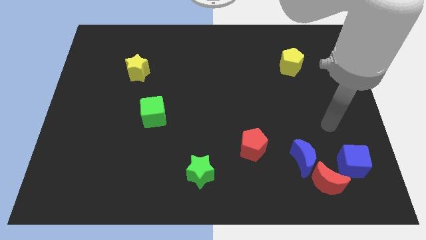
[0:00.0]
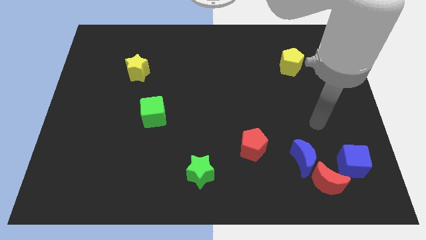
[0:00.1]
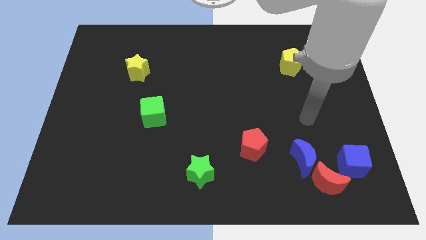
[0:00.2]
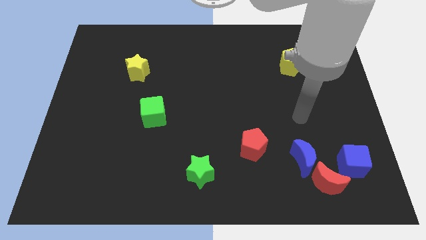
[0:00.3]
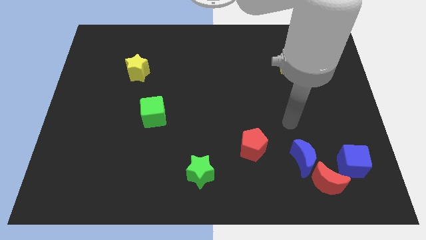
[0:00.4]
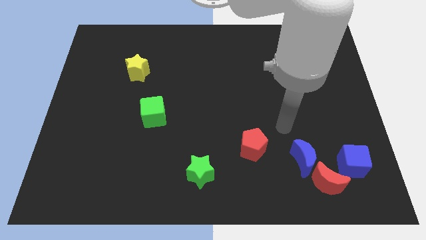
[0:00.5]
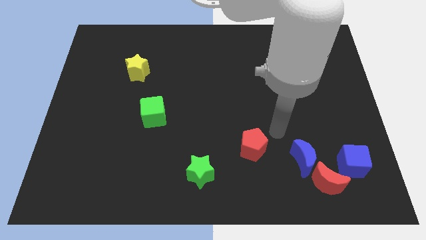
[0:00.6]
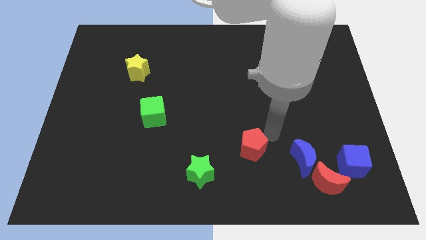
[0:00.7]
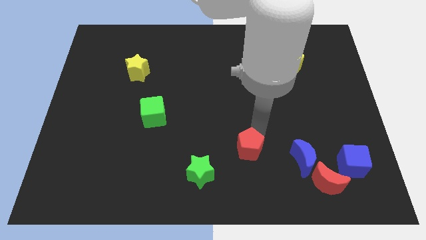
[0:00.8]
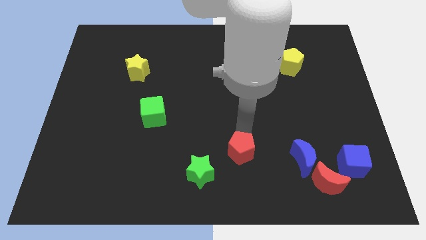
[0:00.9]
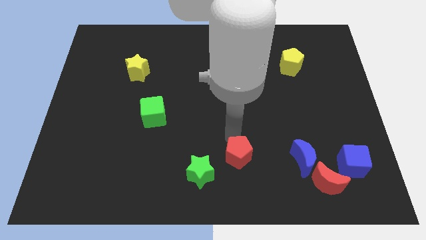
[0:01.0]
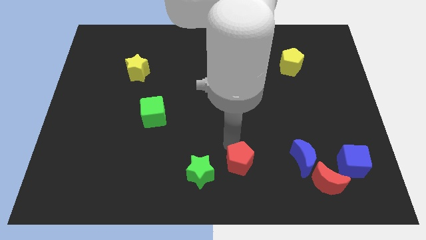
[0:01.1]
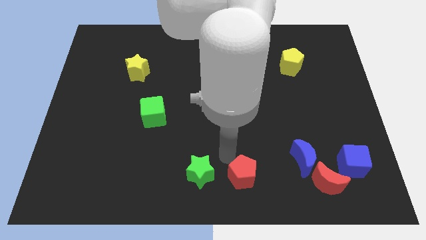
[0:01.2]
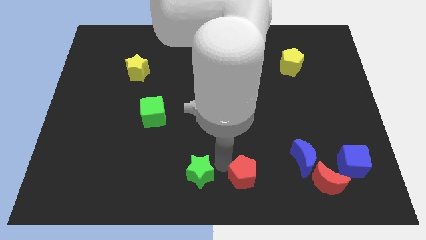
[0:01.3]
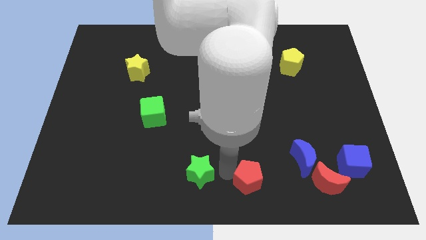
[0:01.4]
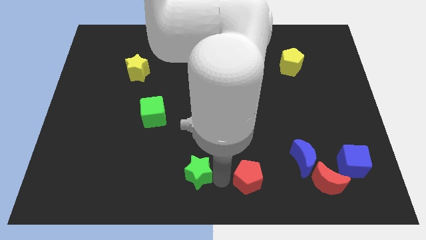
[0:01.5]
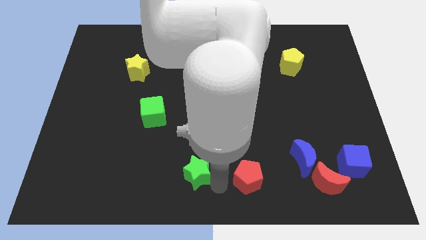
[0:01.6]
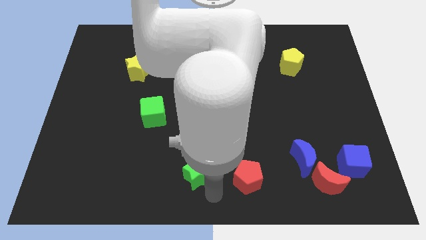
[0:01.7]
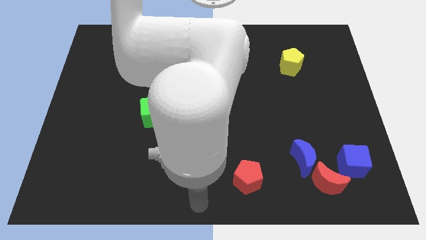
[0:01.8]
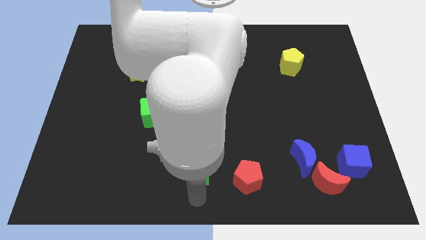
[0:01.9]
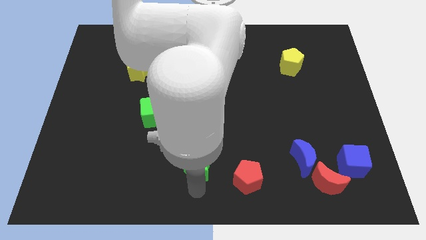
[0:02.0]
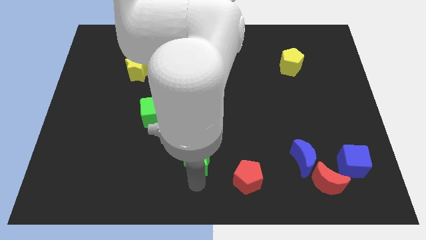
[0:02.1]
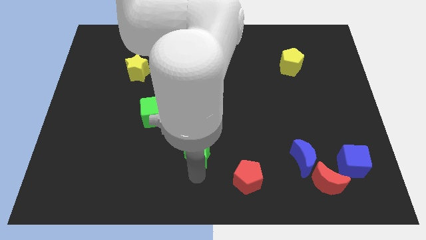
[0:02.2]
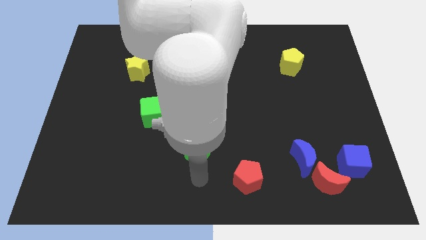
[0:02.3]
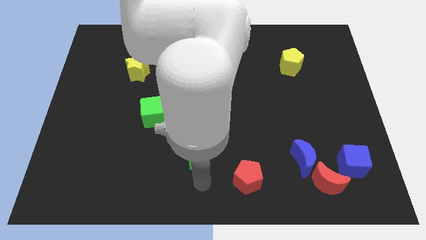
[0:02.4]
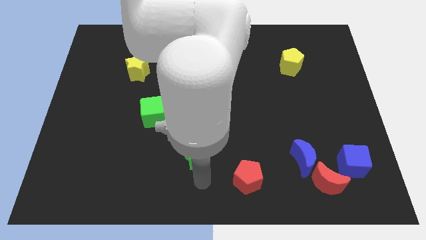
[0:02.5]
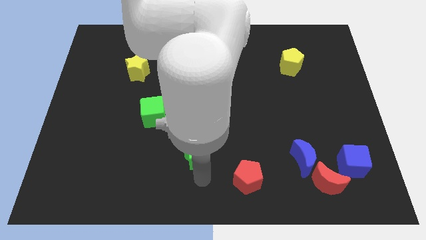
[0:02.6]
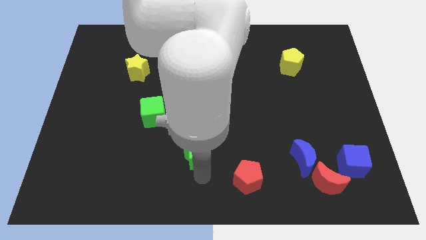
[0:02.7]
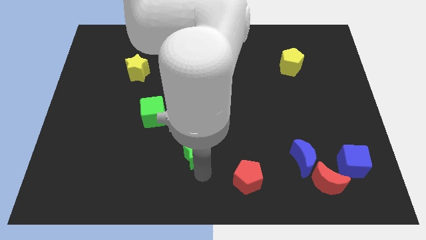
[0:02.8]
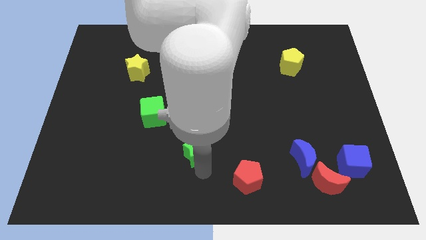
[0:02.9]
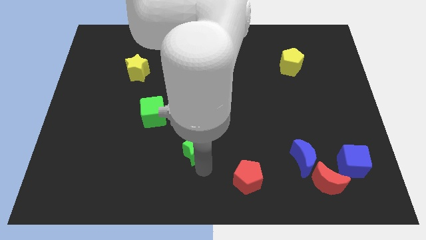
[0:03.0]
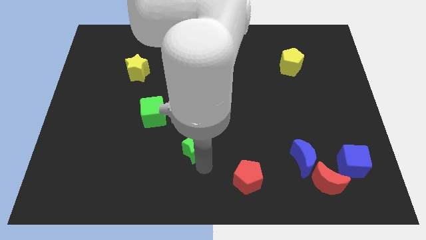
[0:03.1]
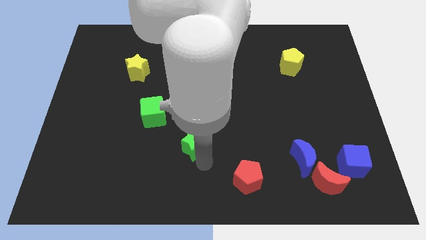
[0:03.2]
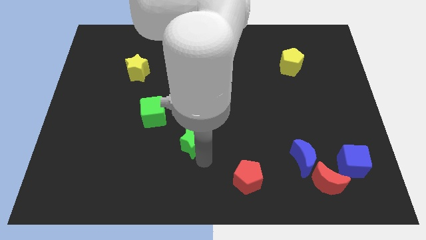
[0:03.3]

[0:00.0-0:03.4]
slide the green star upwards slightly

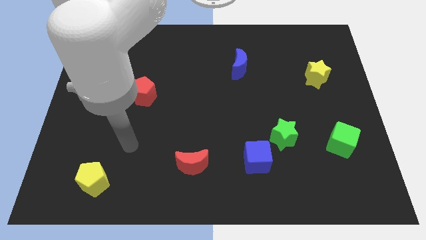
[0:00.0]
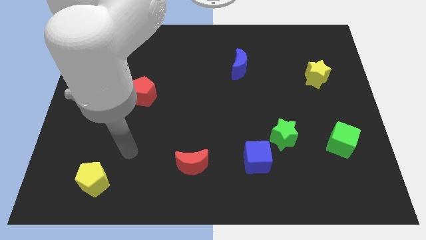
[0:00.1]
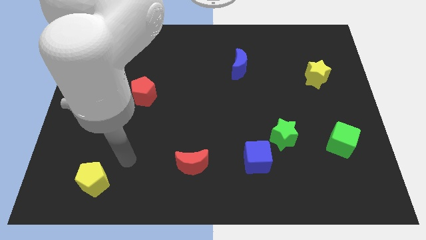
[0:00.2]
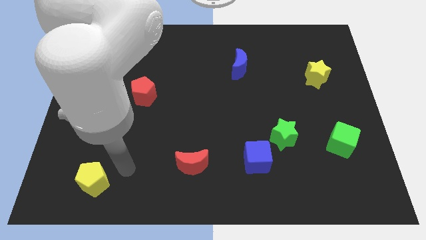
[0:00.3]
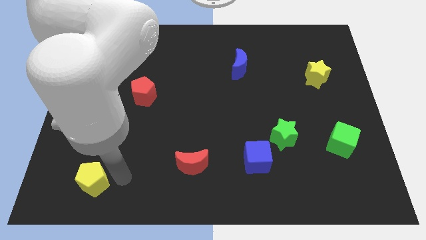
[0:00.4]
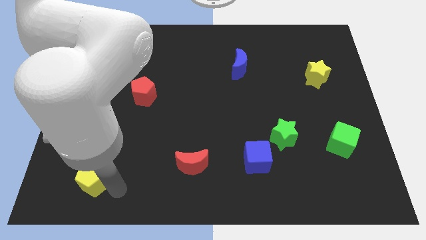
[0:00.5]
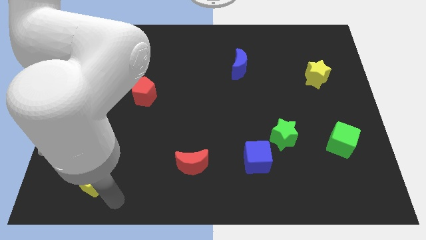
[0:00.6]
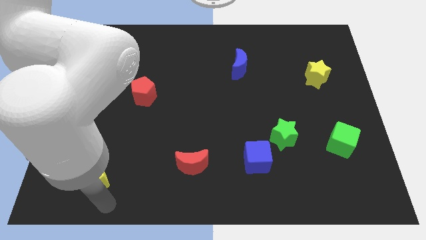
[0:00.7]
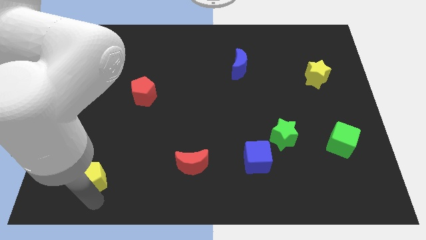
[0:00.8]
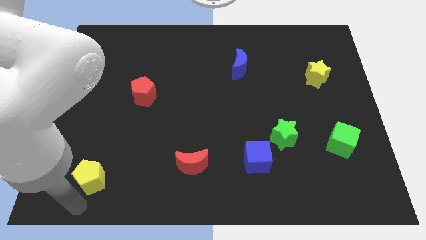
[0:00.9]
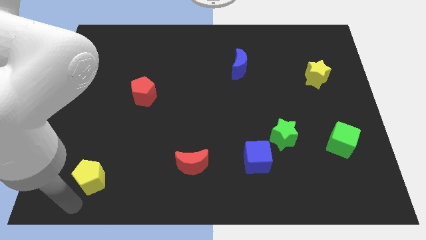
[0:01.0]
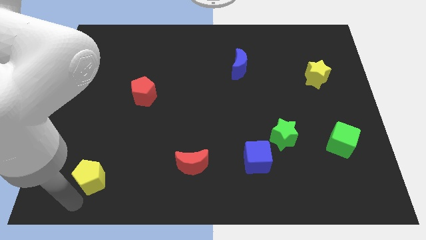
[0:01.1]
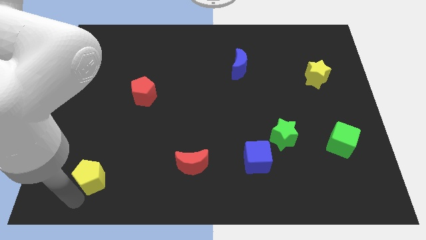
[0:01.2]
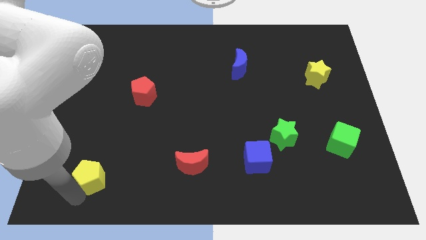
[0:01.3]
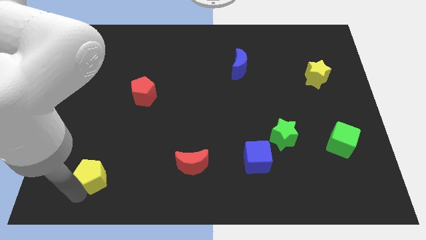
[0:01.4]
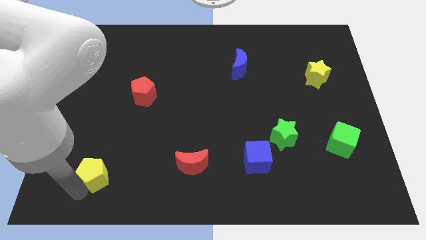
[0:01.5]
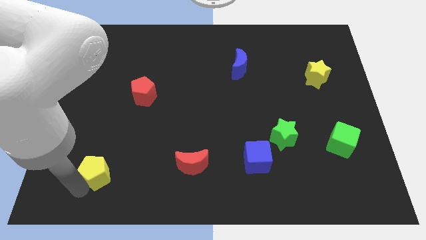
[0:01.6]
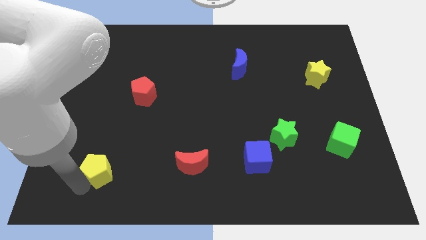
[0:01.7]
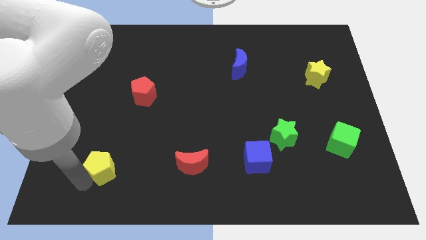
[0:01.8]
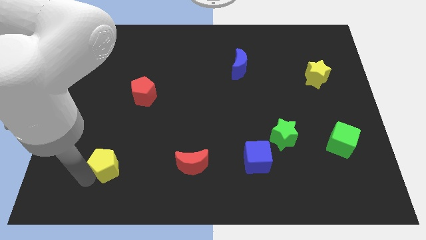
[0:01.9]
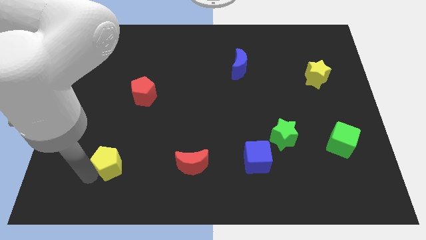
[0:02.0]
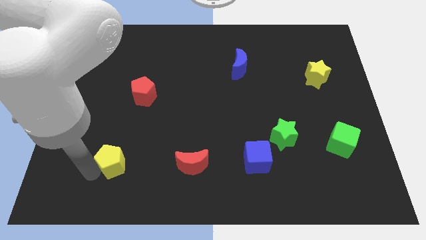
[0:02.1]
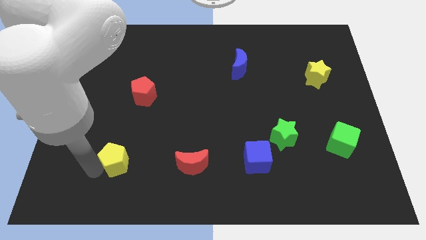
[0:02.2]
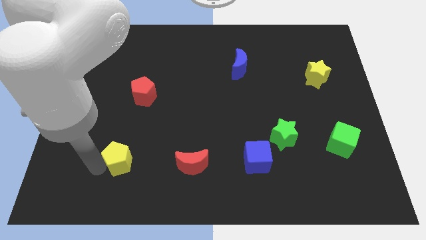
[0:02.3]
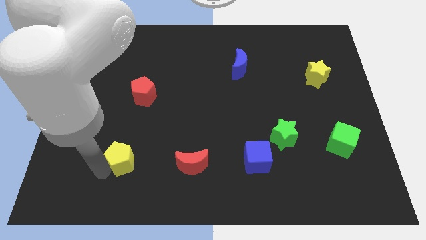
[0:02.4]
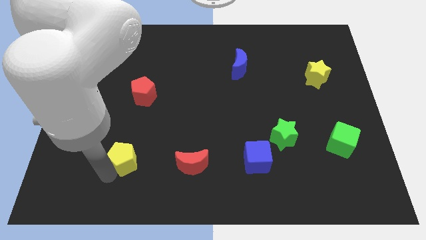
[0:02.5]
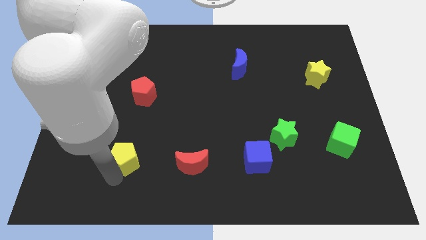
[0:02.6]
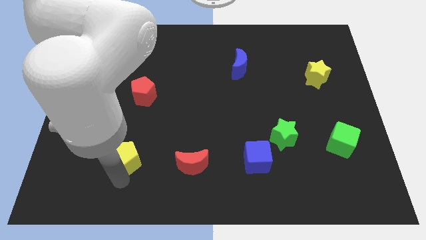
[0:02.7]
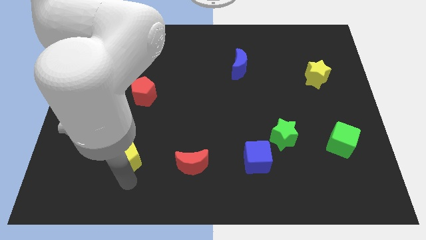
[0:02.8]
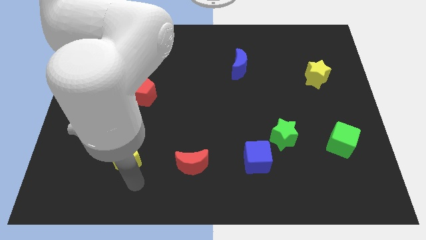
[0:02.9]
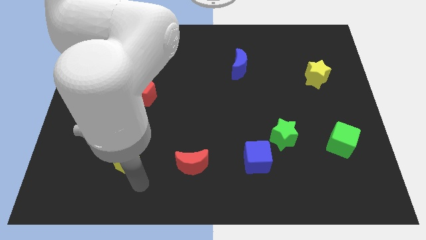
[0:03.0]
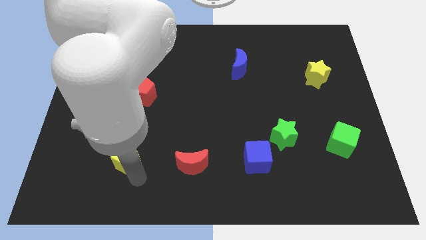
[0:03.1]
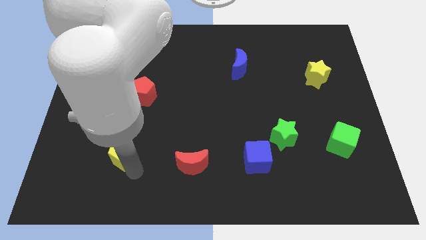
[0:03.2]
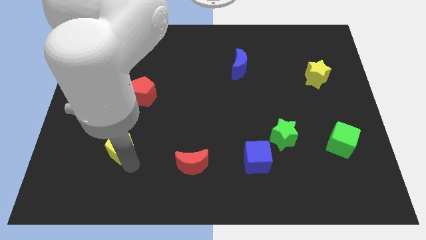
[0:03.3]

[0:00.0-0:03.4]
slide the yellow pentagon up slightly

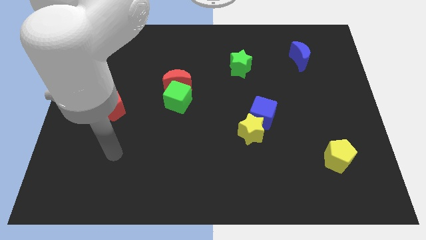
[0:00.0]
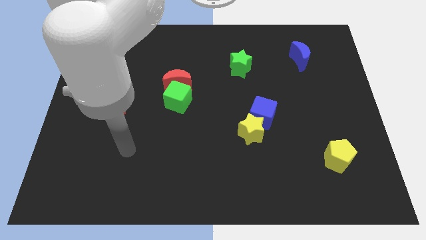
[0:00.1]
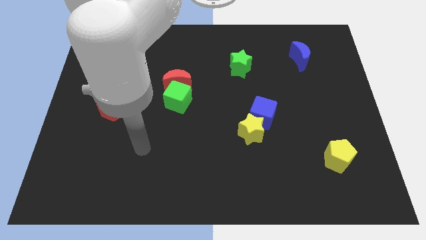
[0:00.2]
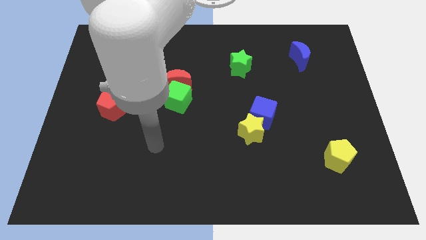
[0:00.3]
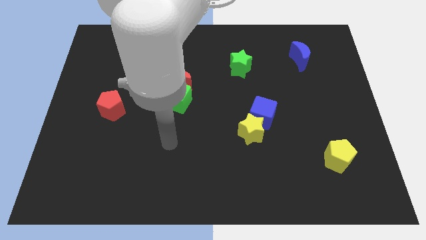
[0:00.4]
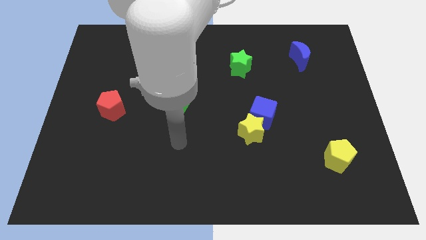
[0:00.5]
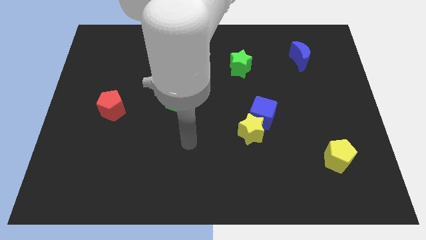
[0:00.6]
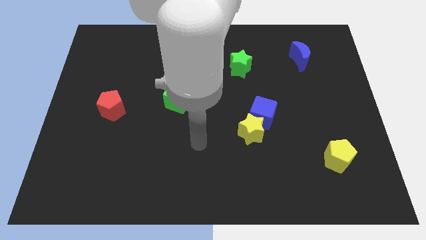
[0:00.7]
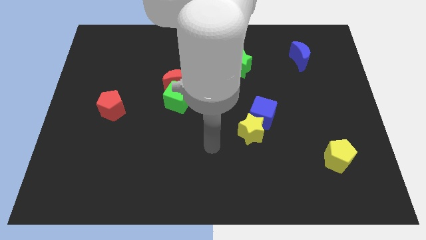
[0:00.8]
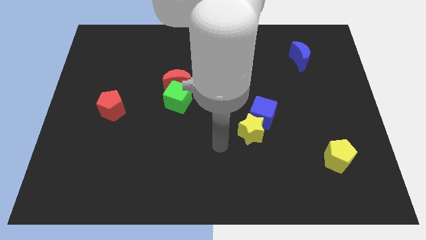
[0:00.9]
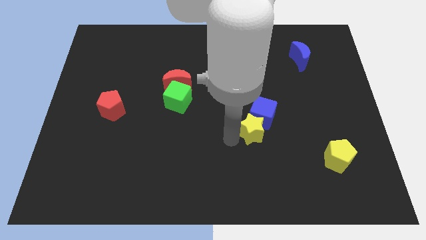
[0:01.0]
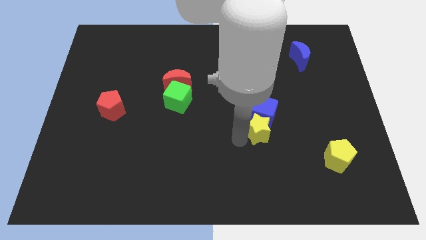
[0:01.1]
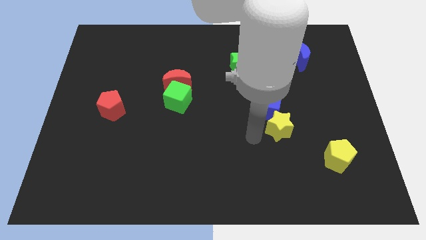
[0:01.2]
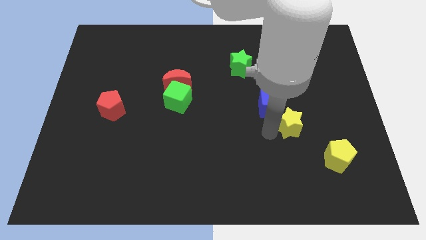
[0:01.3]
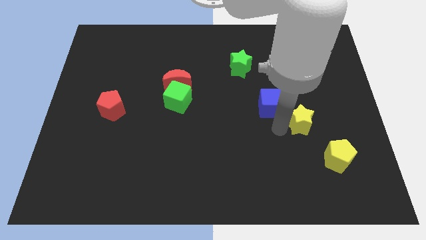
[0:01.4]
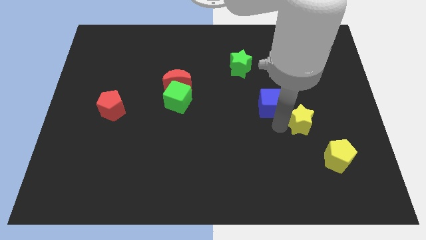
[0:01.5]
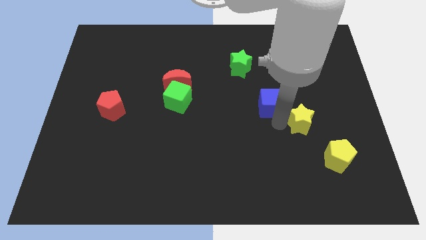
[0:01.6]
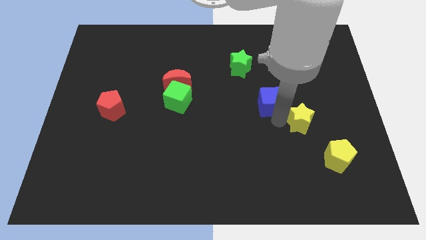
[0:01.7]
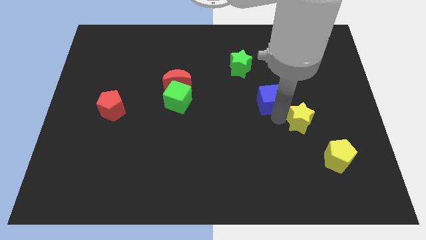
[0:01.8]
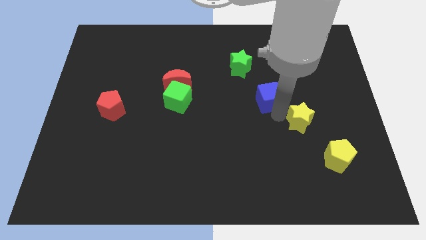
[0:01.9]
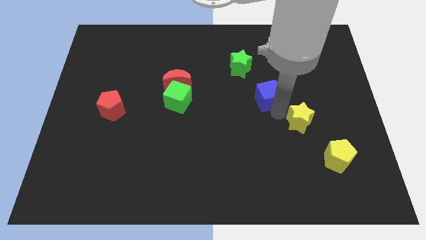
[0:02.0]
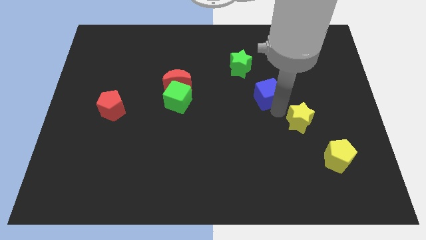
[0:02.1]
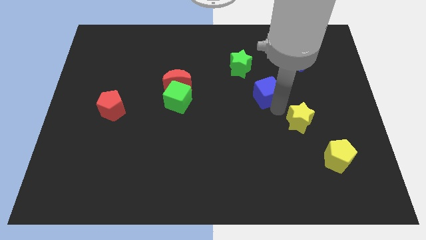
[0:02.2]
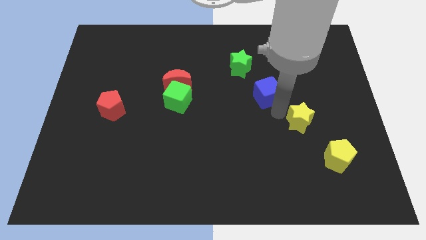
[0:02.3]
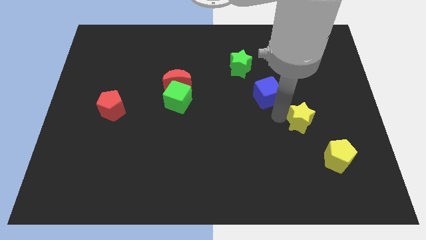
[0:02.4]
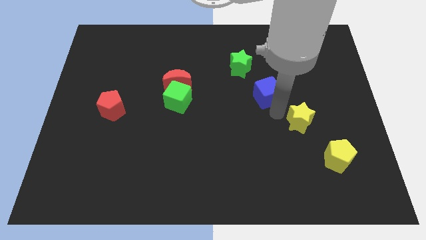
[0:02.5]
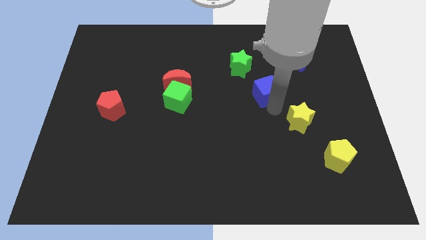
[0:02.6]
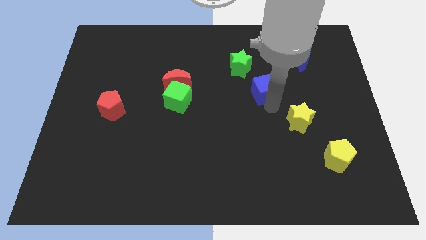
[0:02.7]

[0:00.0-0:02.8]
slightly push the blue cube up
